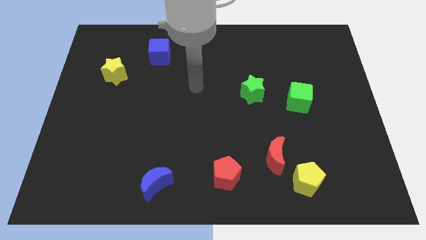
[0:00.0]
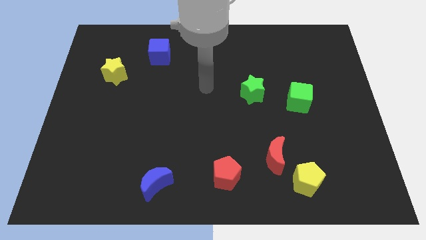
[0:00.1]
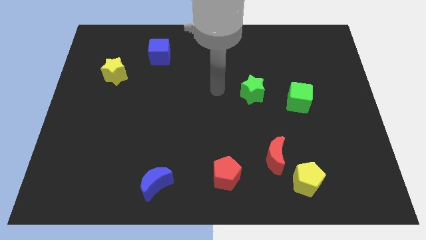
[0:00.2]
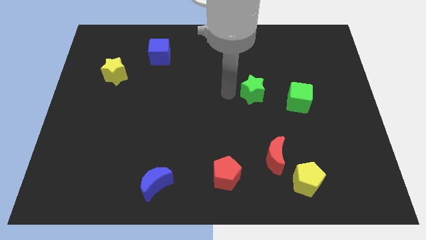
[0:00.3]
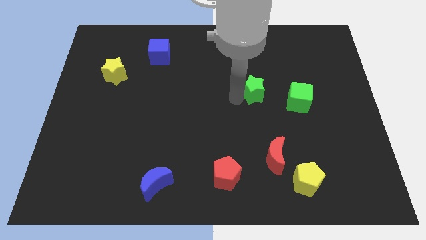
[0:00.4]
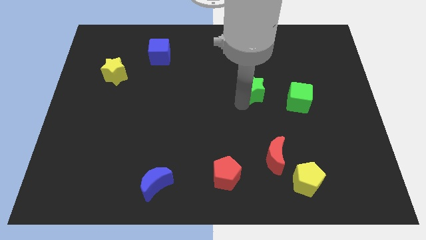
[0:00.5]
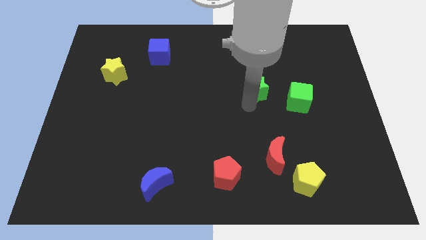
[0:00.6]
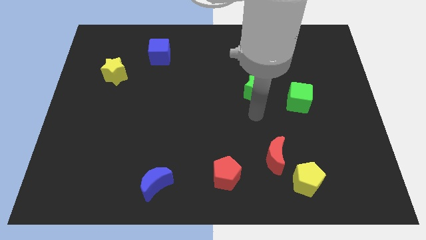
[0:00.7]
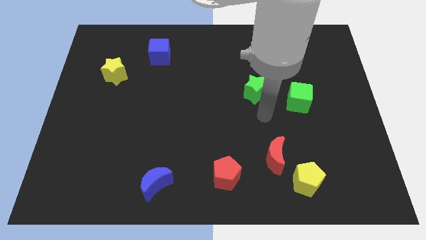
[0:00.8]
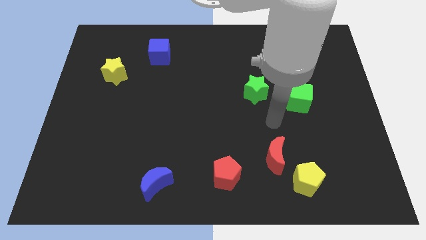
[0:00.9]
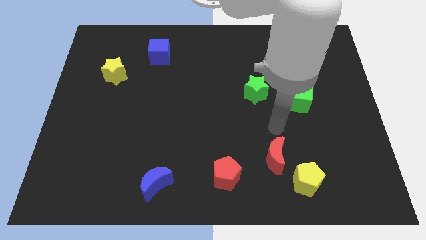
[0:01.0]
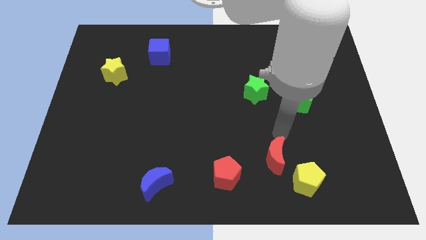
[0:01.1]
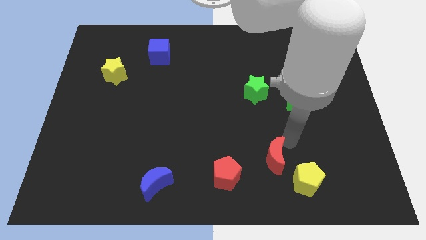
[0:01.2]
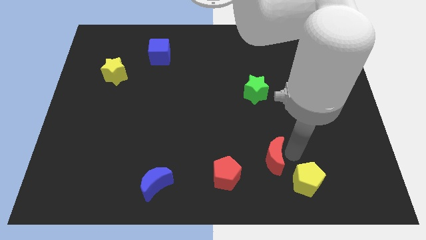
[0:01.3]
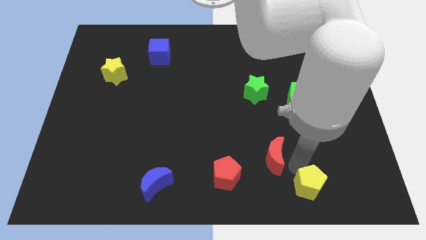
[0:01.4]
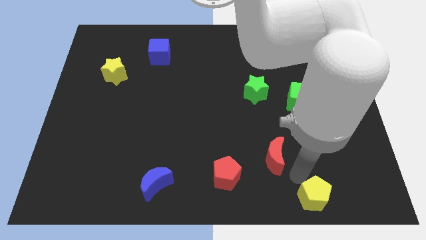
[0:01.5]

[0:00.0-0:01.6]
separate the red moon from the yellow pentagon

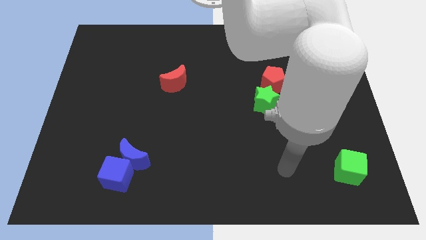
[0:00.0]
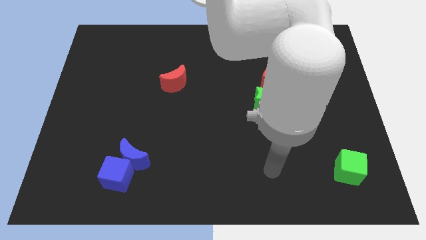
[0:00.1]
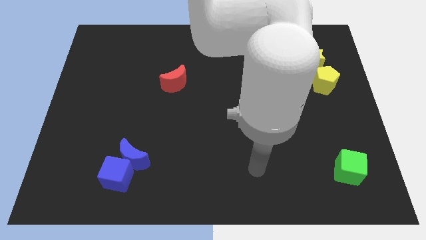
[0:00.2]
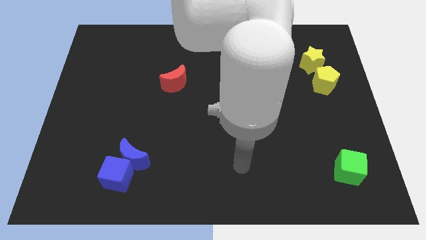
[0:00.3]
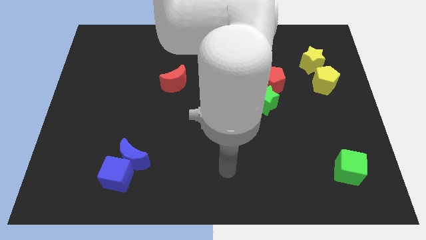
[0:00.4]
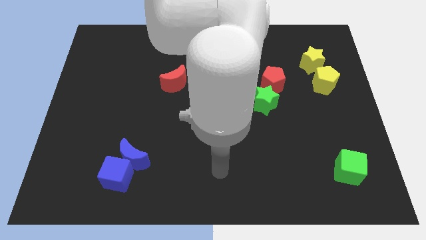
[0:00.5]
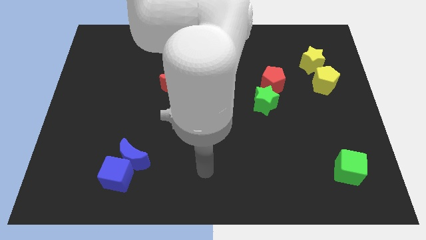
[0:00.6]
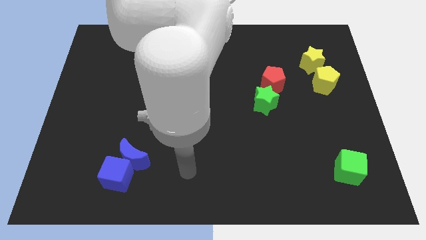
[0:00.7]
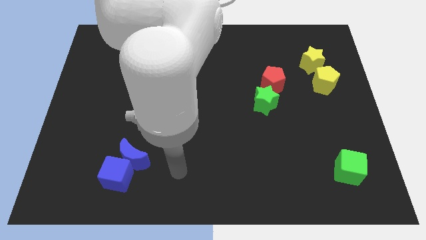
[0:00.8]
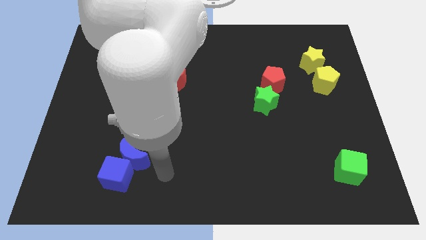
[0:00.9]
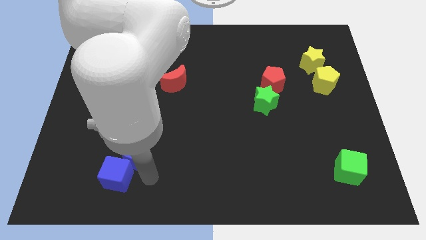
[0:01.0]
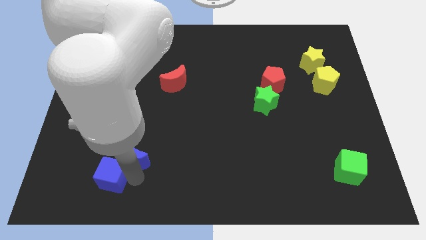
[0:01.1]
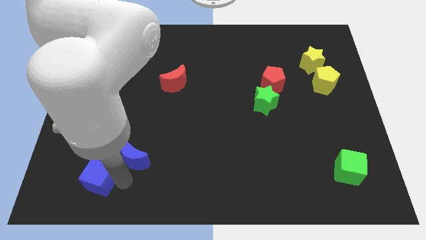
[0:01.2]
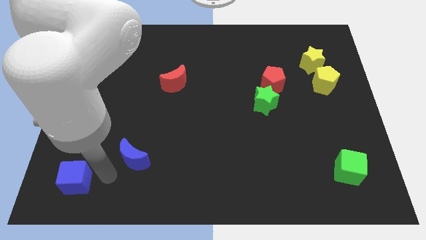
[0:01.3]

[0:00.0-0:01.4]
move the blue moon away from the blue cube

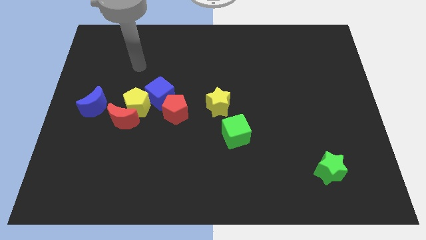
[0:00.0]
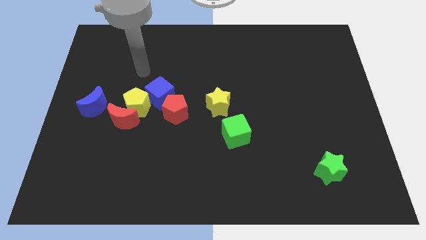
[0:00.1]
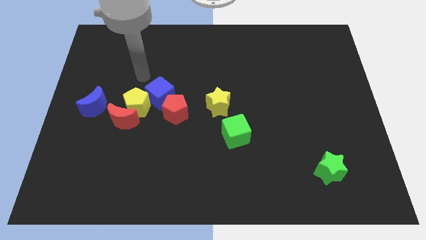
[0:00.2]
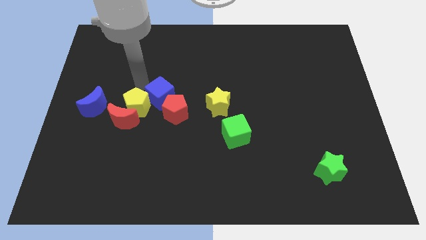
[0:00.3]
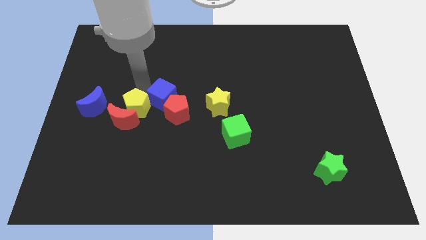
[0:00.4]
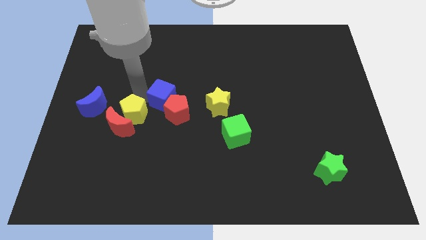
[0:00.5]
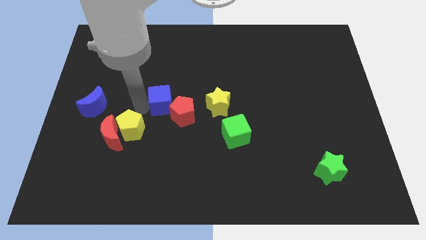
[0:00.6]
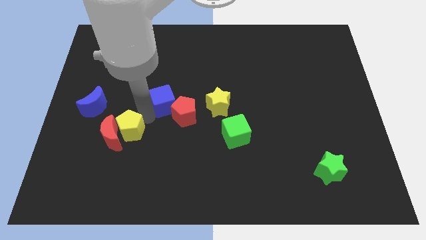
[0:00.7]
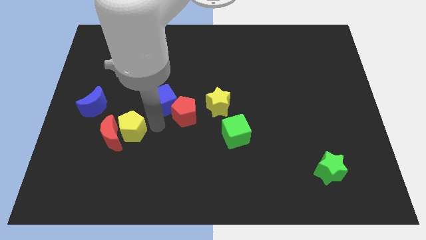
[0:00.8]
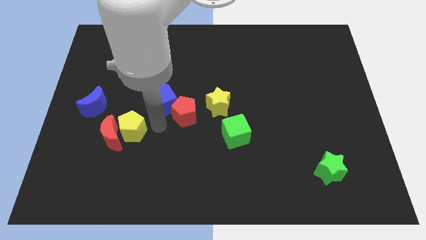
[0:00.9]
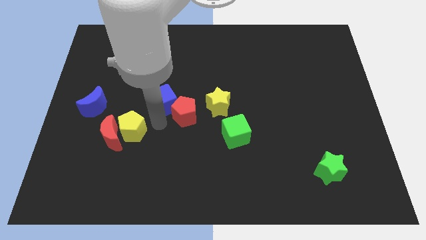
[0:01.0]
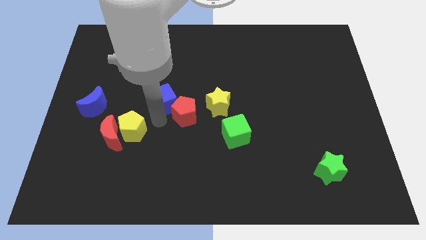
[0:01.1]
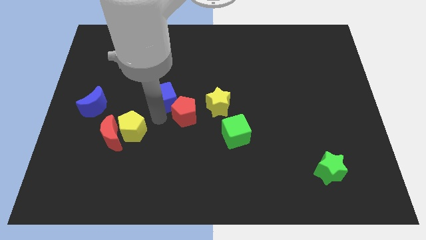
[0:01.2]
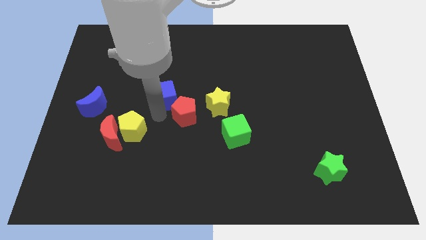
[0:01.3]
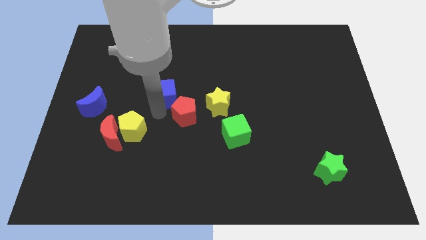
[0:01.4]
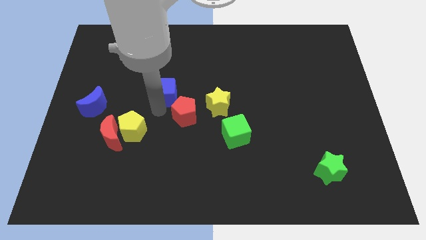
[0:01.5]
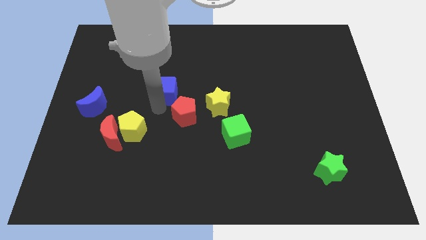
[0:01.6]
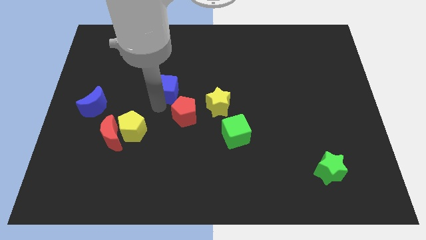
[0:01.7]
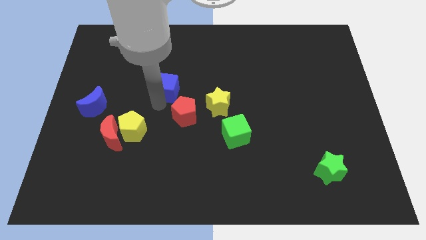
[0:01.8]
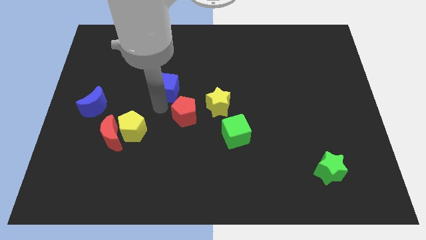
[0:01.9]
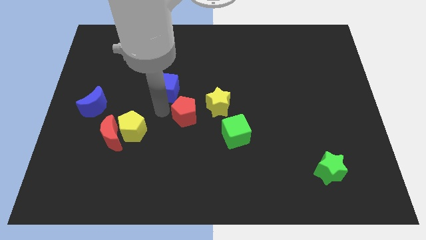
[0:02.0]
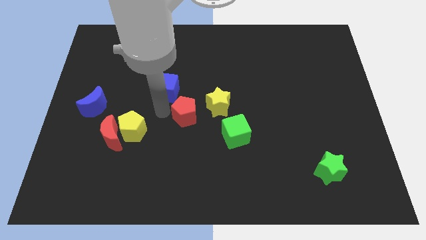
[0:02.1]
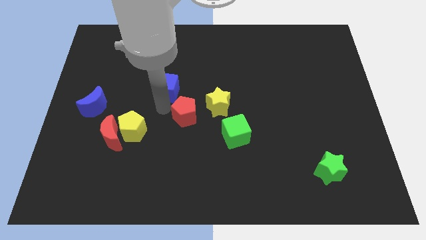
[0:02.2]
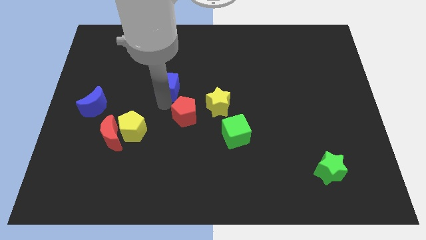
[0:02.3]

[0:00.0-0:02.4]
separate the blue cube from the red pentagon and yellow pentagon

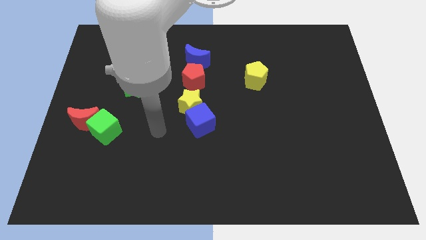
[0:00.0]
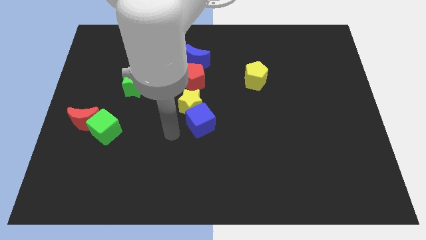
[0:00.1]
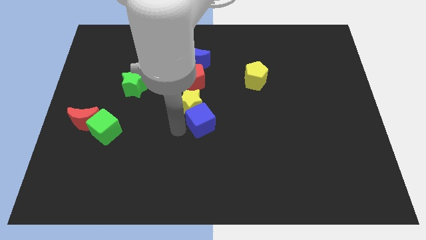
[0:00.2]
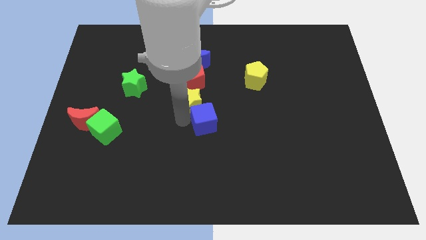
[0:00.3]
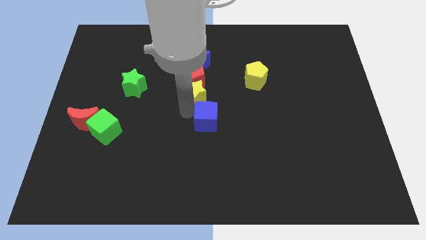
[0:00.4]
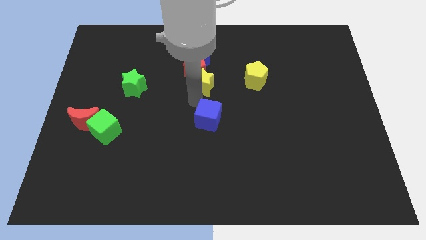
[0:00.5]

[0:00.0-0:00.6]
pull the blue cube apart from the yellow star

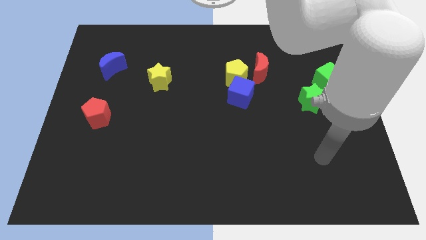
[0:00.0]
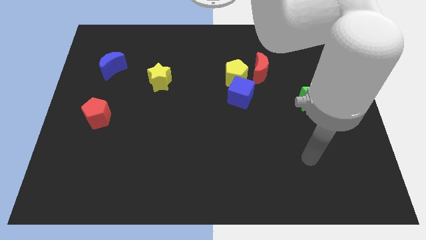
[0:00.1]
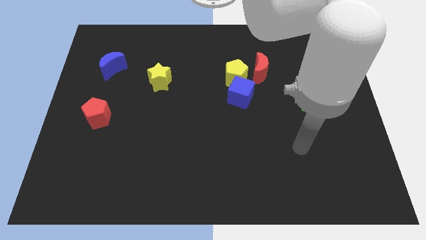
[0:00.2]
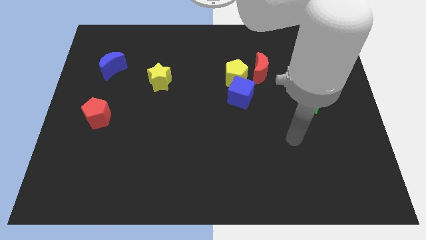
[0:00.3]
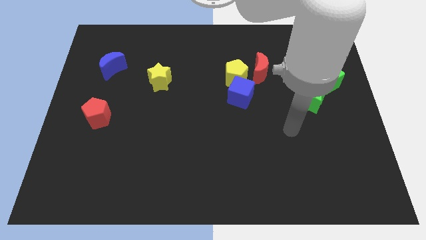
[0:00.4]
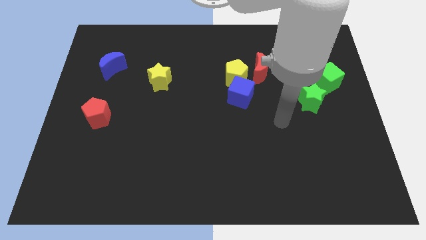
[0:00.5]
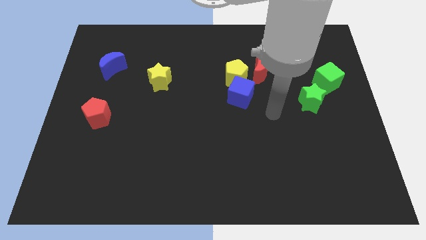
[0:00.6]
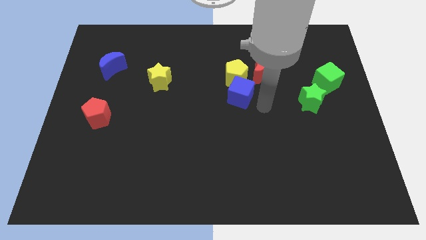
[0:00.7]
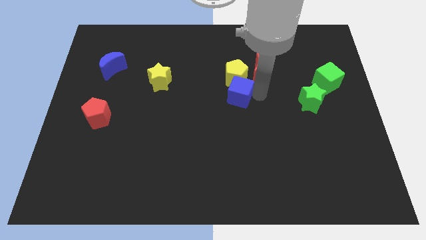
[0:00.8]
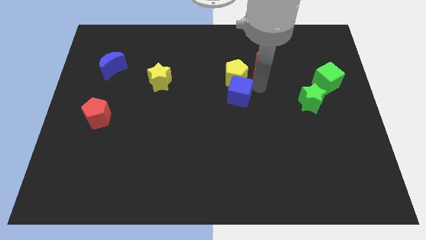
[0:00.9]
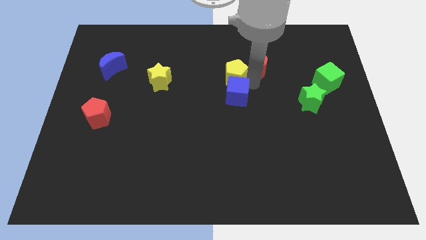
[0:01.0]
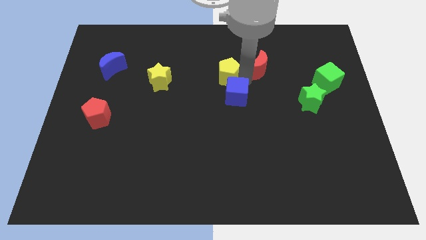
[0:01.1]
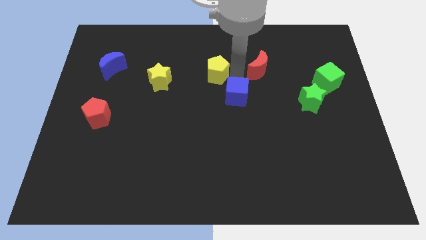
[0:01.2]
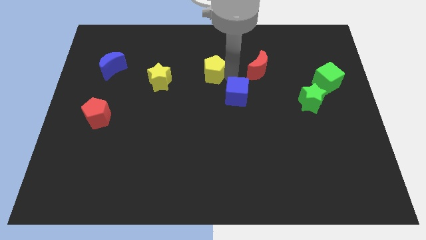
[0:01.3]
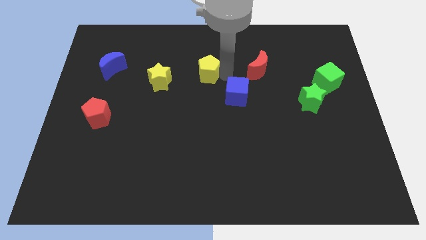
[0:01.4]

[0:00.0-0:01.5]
separate the yellow pentagon from the blue cube and red moon

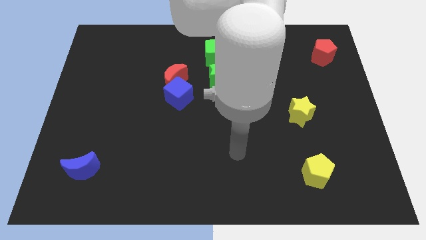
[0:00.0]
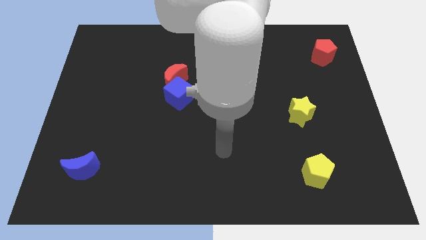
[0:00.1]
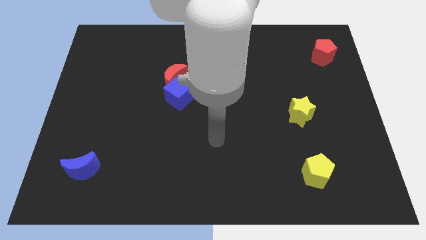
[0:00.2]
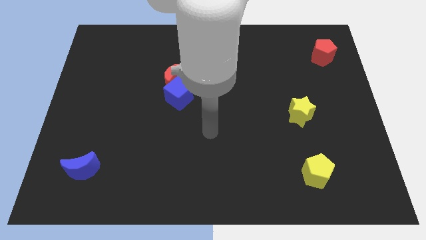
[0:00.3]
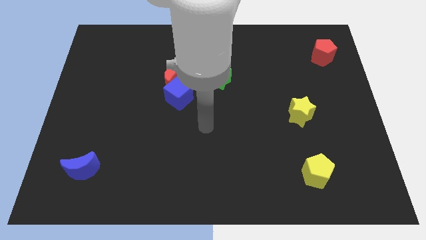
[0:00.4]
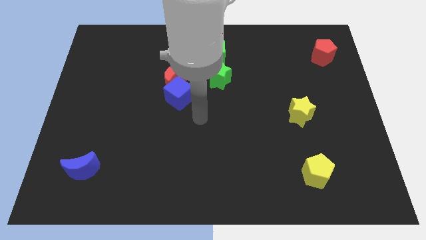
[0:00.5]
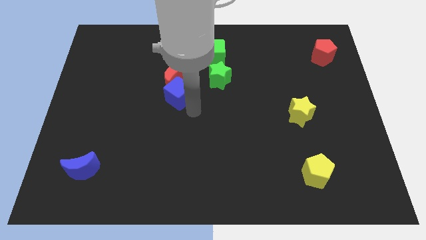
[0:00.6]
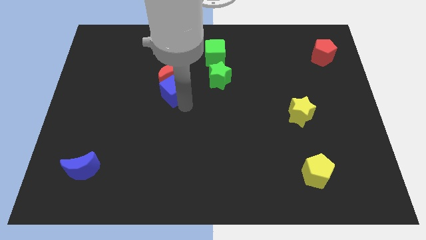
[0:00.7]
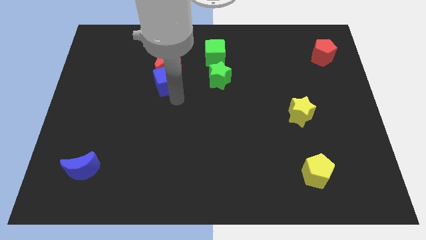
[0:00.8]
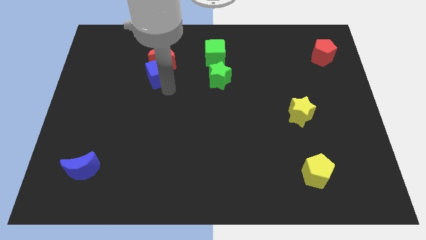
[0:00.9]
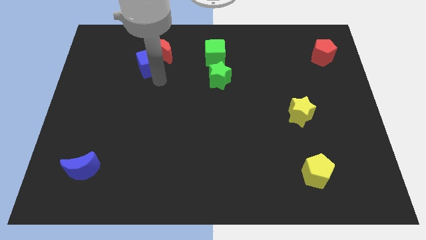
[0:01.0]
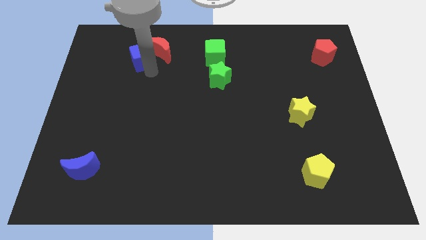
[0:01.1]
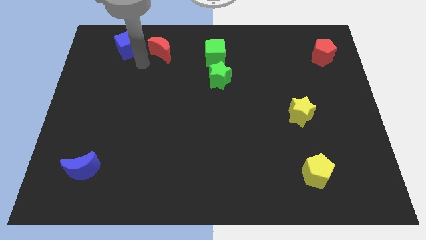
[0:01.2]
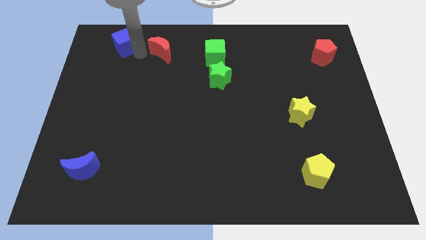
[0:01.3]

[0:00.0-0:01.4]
separate the red moon from the blue cube

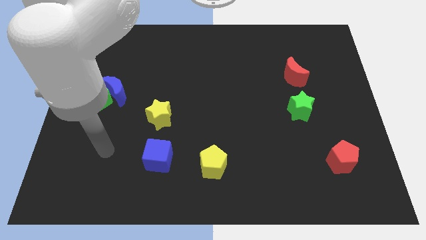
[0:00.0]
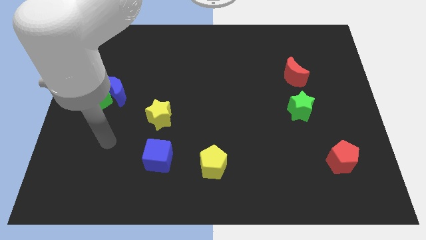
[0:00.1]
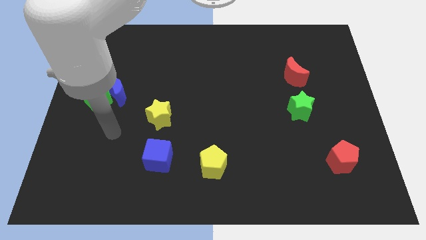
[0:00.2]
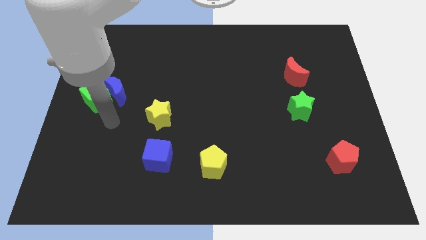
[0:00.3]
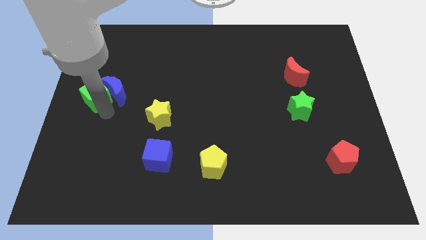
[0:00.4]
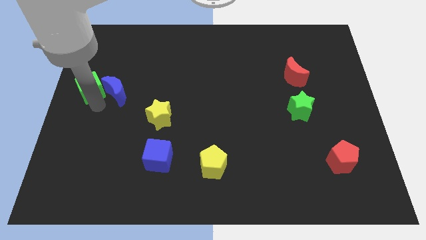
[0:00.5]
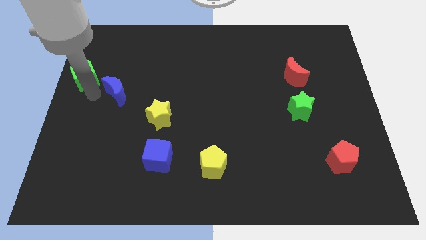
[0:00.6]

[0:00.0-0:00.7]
separate the blue moon from the green cube
